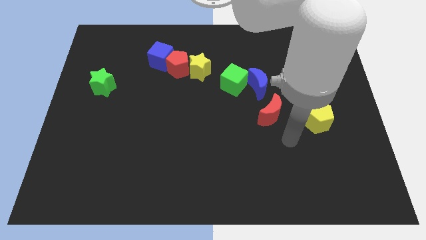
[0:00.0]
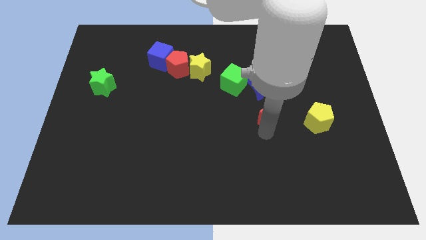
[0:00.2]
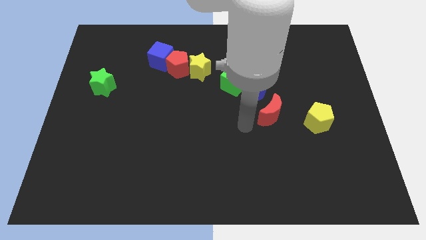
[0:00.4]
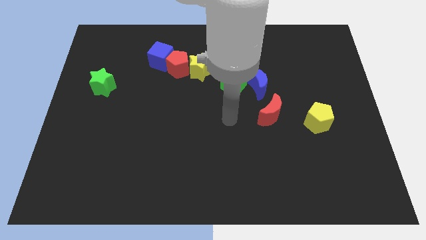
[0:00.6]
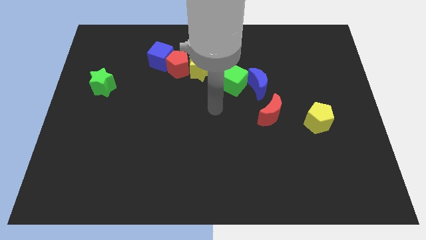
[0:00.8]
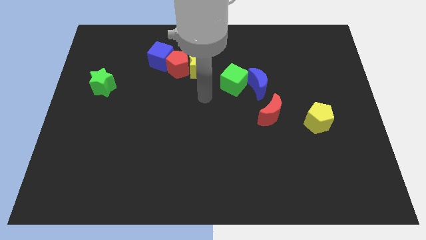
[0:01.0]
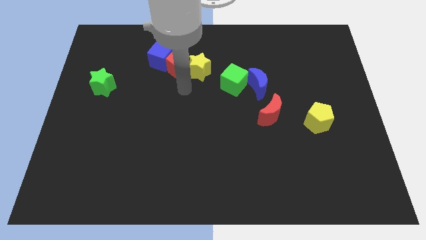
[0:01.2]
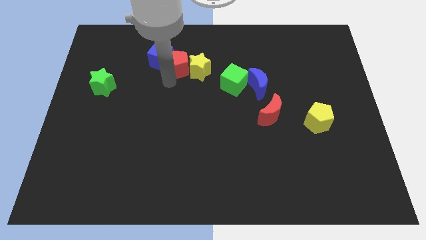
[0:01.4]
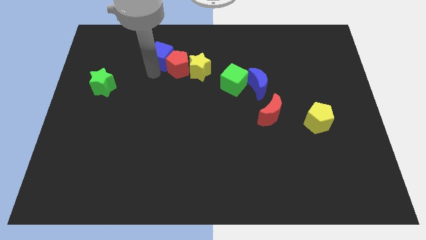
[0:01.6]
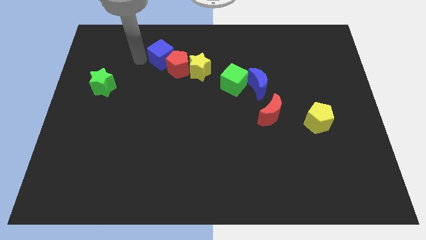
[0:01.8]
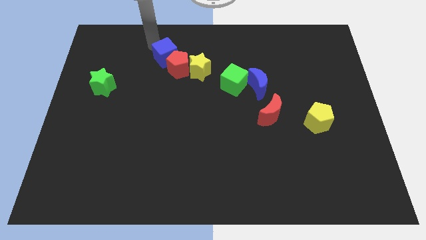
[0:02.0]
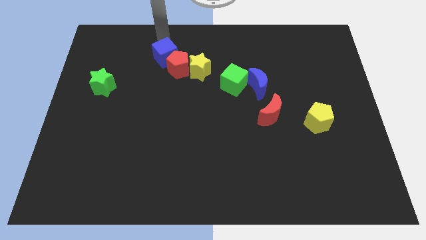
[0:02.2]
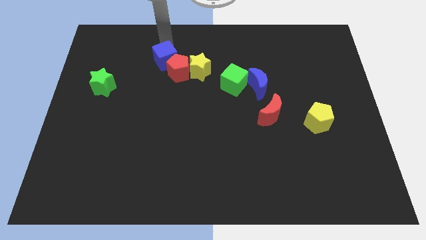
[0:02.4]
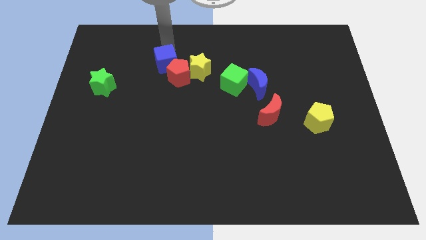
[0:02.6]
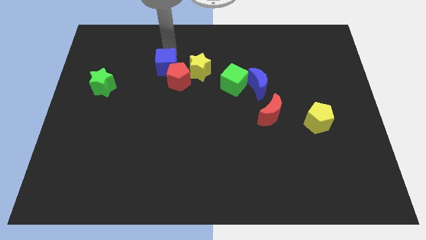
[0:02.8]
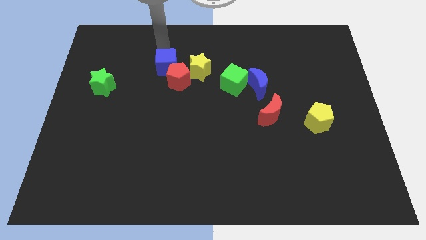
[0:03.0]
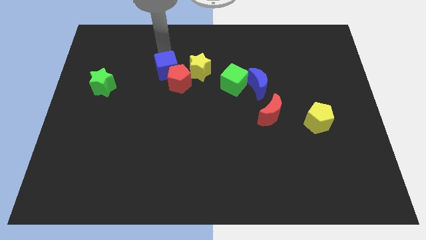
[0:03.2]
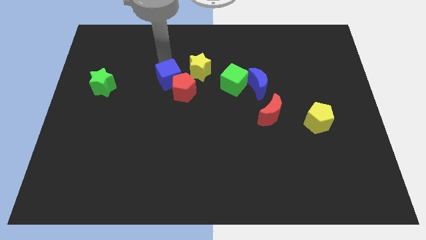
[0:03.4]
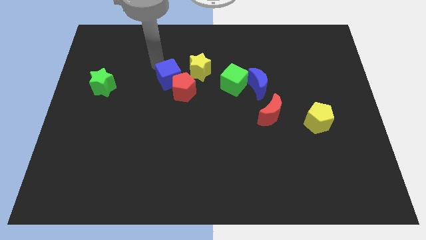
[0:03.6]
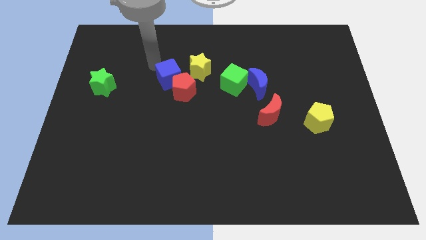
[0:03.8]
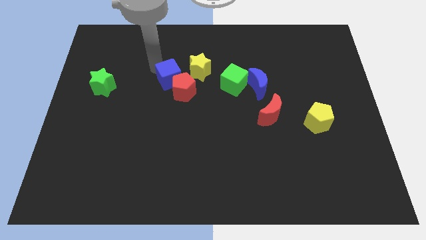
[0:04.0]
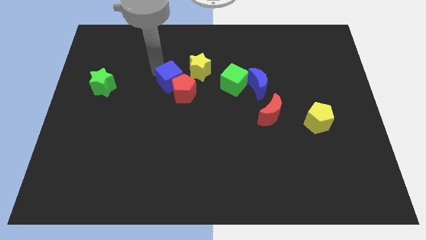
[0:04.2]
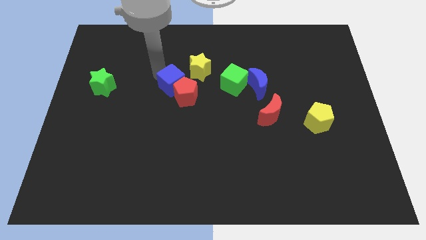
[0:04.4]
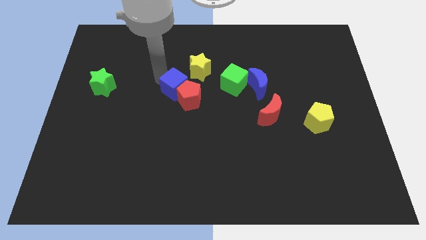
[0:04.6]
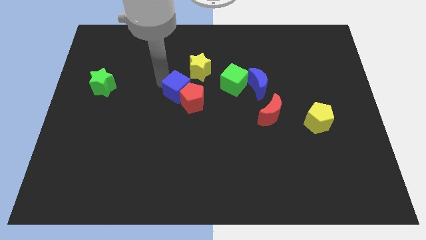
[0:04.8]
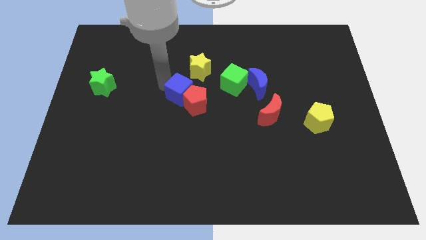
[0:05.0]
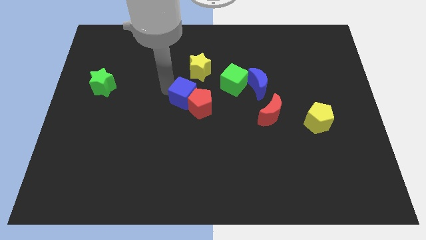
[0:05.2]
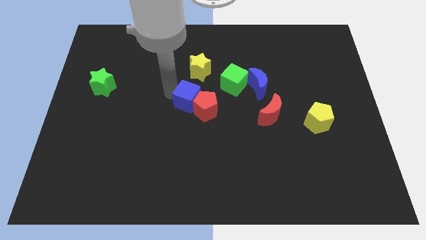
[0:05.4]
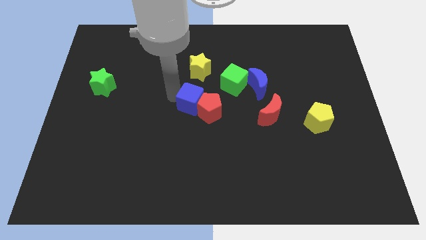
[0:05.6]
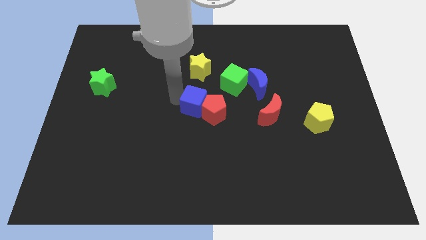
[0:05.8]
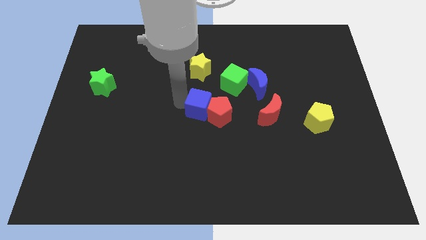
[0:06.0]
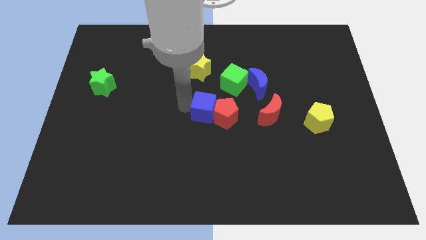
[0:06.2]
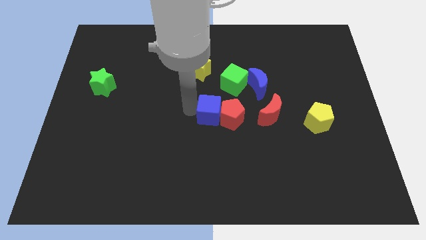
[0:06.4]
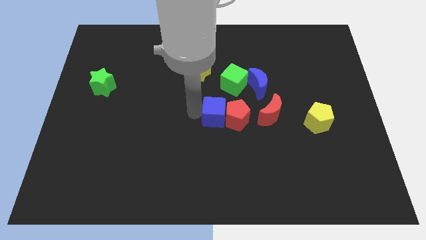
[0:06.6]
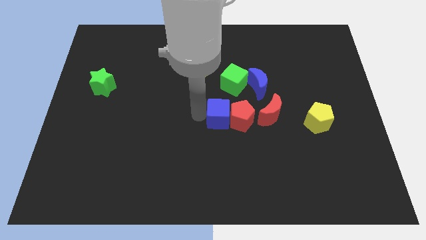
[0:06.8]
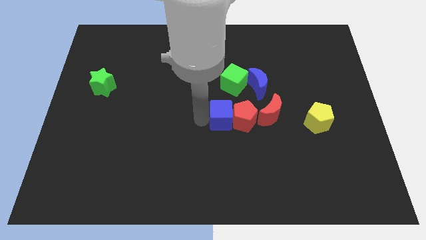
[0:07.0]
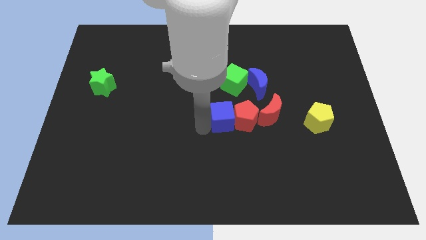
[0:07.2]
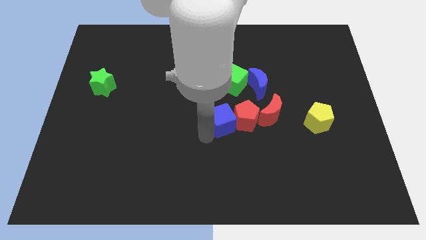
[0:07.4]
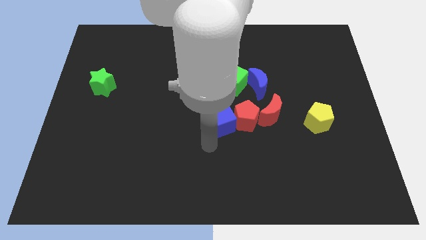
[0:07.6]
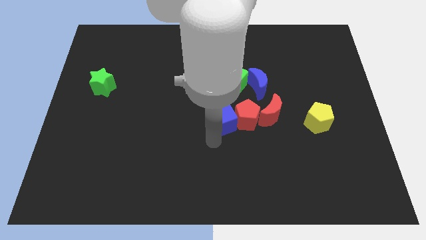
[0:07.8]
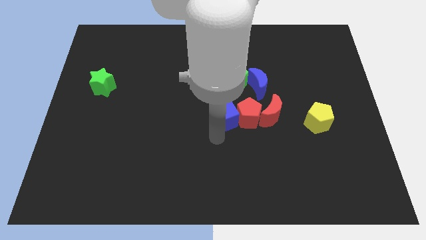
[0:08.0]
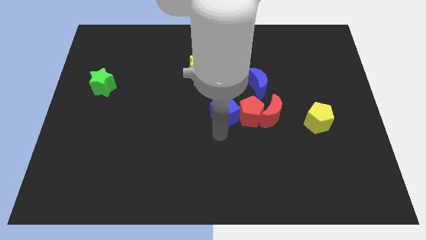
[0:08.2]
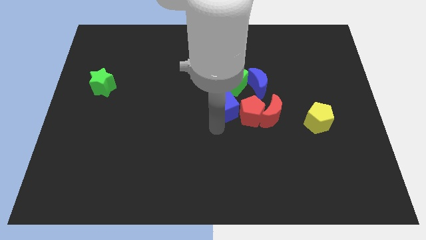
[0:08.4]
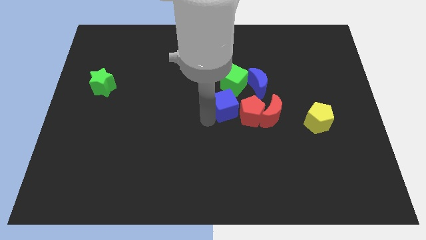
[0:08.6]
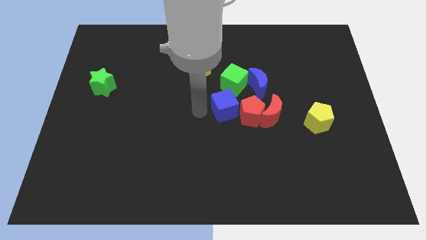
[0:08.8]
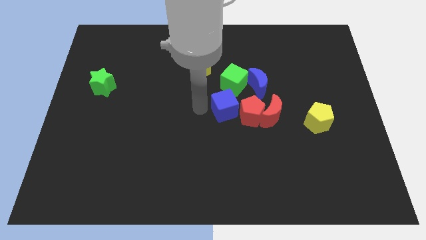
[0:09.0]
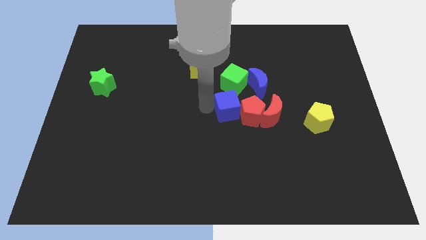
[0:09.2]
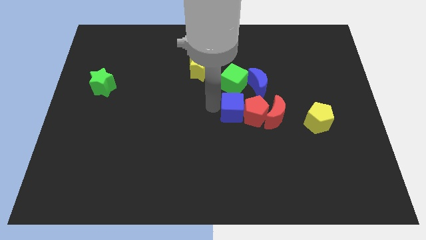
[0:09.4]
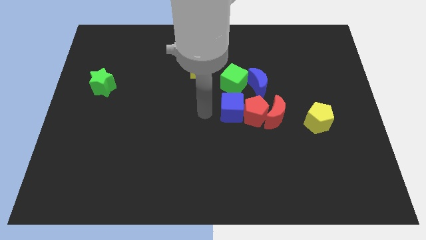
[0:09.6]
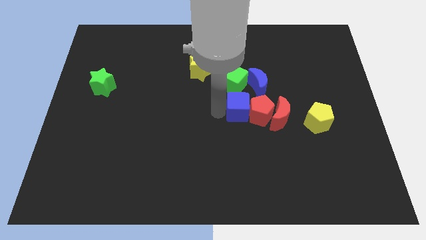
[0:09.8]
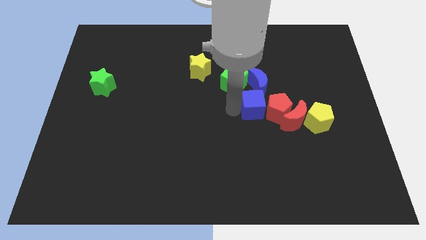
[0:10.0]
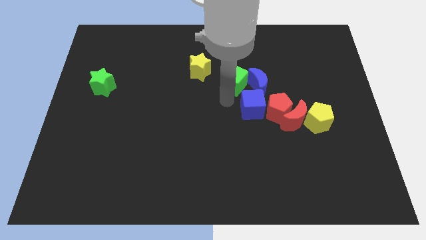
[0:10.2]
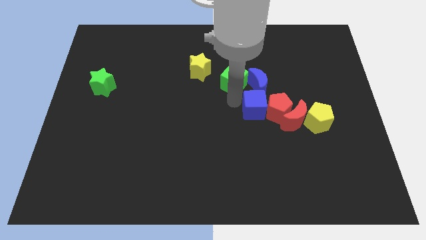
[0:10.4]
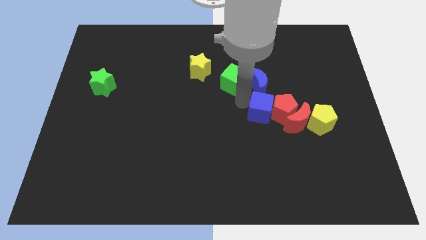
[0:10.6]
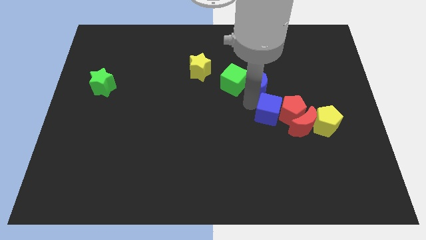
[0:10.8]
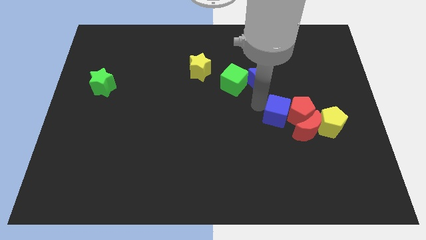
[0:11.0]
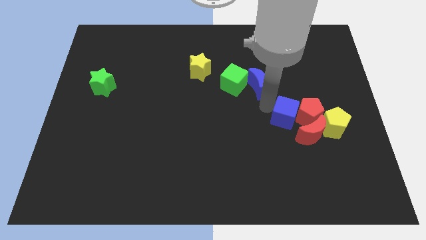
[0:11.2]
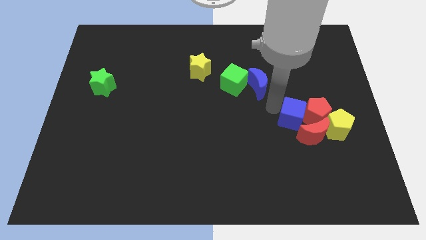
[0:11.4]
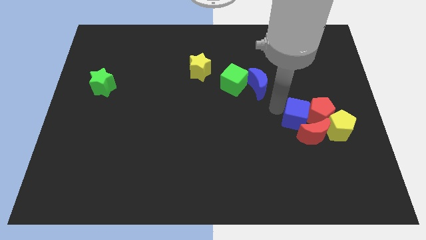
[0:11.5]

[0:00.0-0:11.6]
put the blue cube towards the red moon

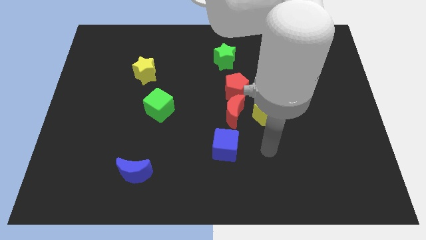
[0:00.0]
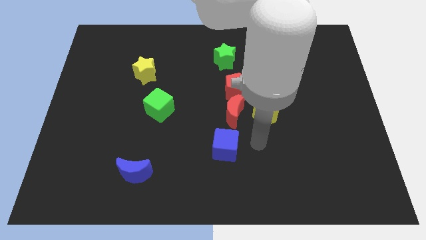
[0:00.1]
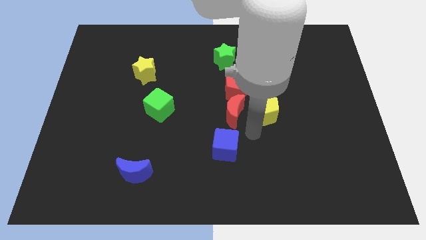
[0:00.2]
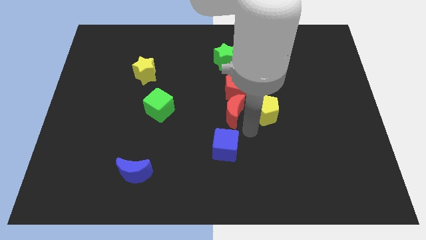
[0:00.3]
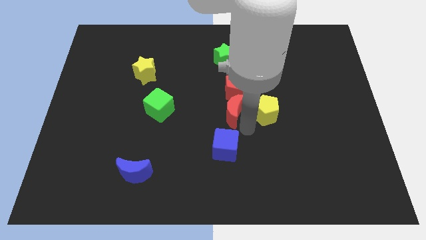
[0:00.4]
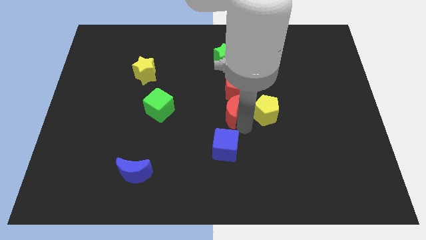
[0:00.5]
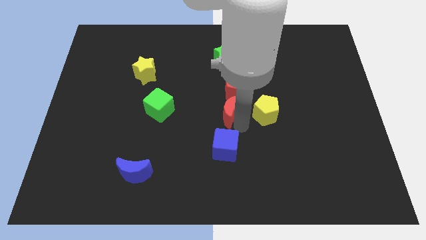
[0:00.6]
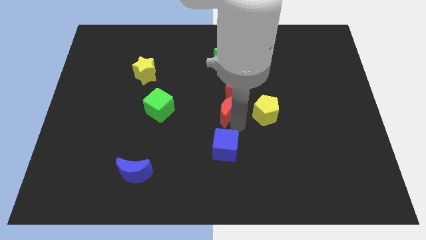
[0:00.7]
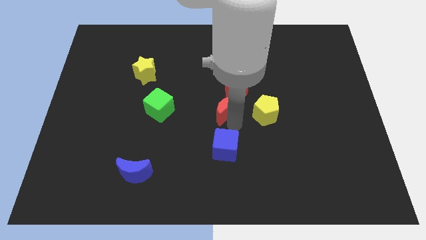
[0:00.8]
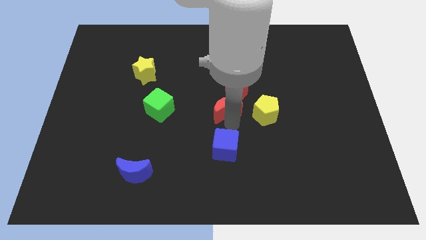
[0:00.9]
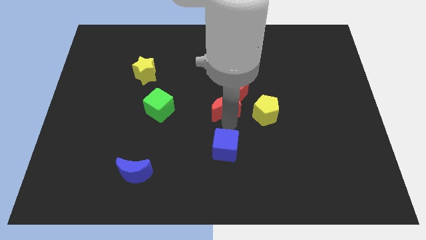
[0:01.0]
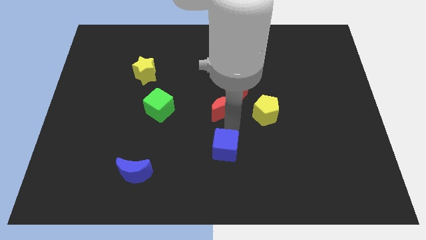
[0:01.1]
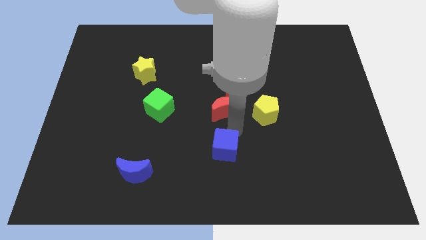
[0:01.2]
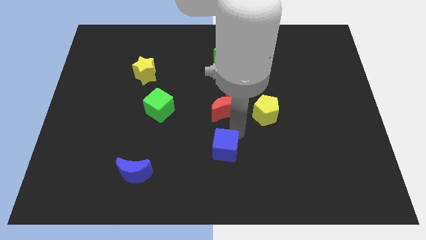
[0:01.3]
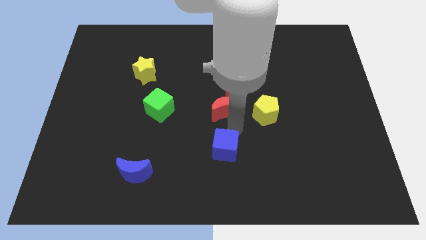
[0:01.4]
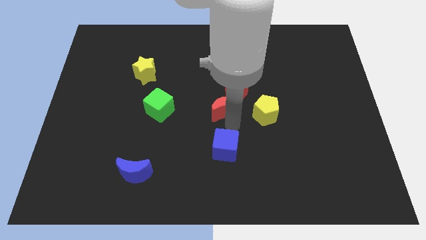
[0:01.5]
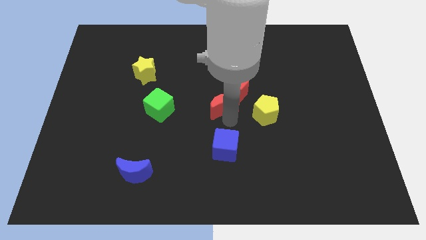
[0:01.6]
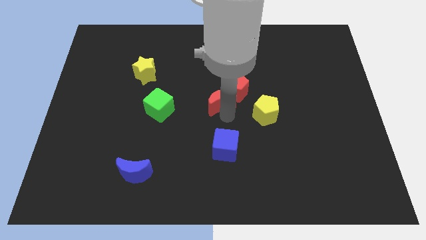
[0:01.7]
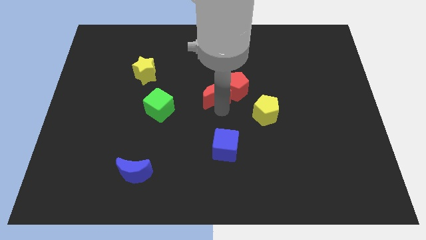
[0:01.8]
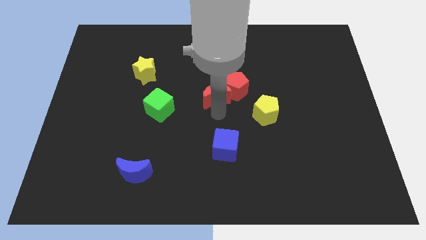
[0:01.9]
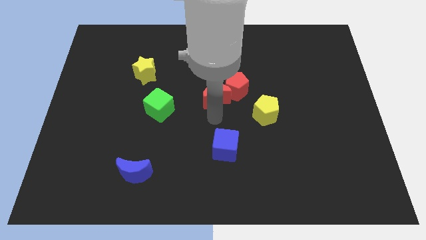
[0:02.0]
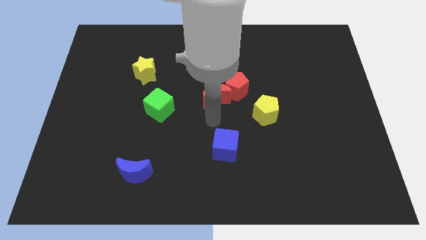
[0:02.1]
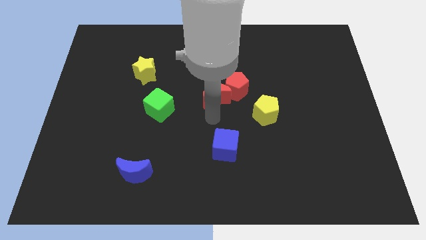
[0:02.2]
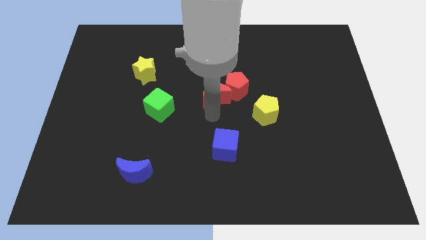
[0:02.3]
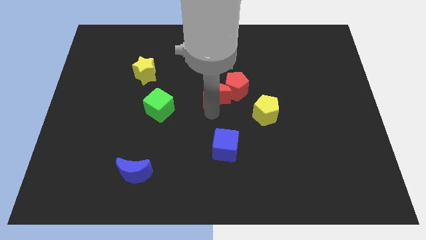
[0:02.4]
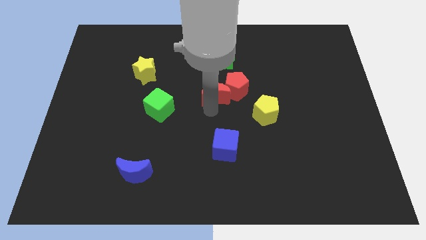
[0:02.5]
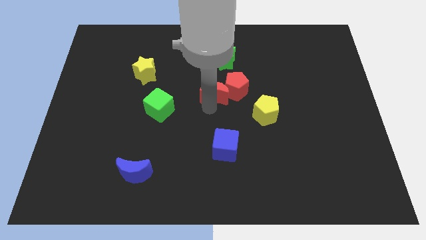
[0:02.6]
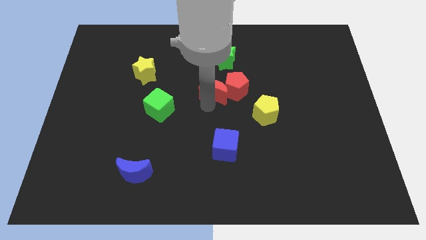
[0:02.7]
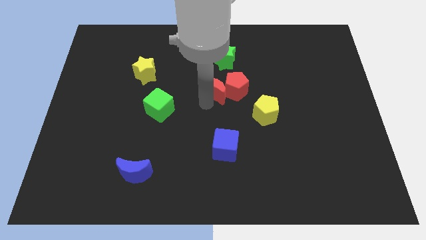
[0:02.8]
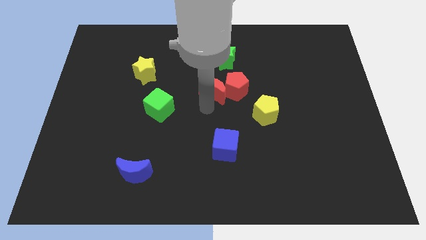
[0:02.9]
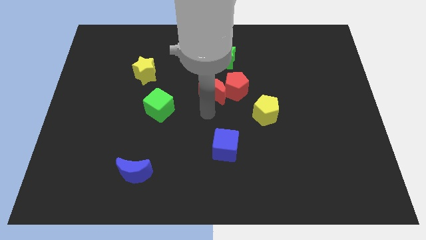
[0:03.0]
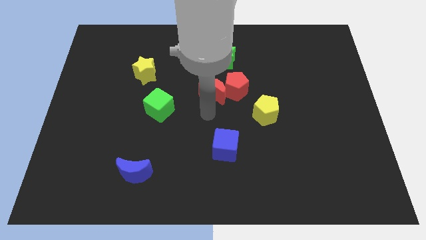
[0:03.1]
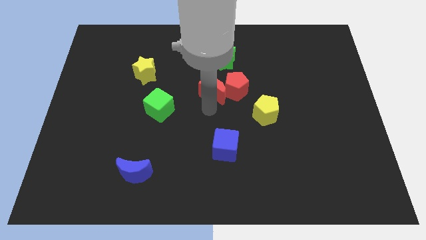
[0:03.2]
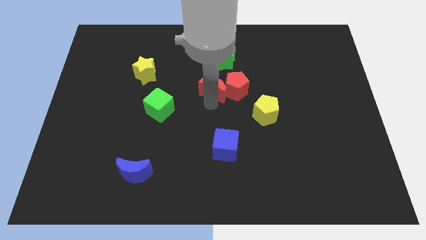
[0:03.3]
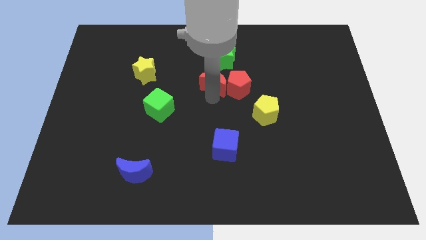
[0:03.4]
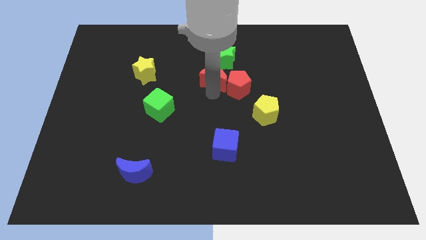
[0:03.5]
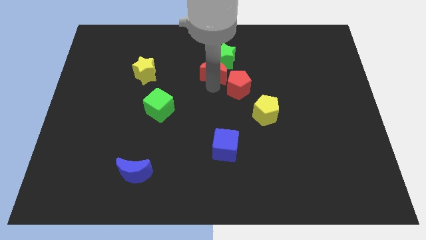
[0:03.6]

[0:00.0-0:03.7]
put the red moon next to the green star
